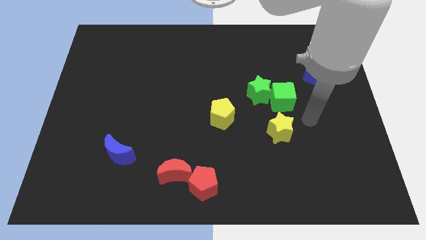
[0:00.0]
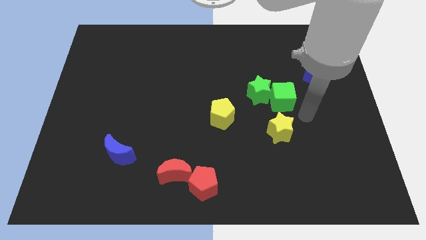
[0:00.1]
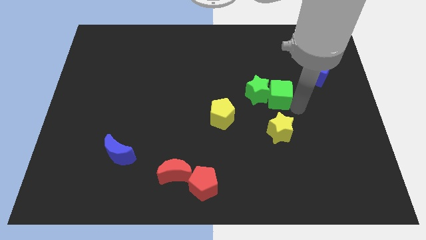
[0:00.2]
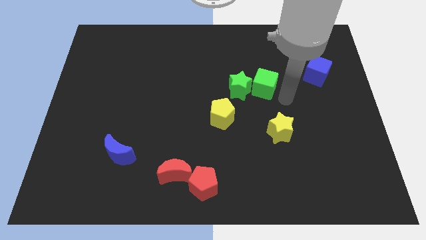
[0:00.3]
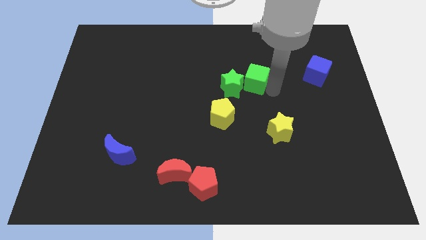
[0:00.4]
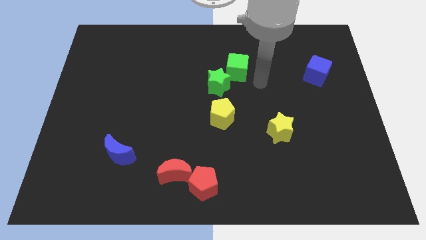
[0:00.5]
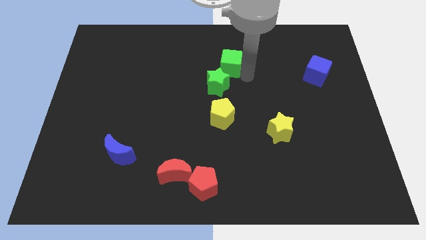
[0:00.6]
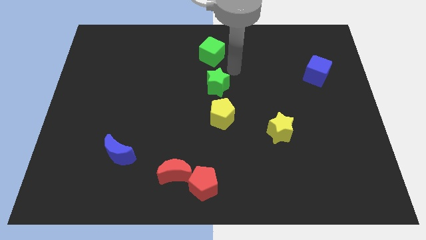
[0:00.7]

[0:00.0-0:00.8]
separate the green star from the green cube

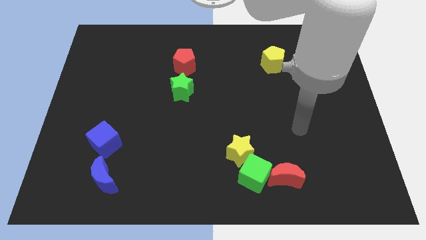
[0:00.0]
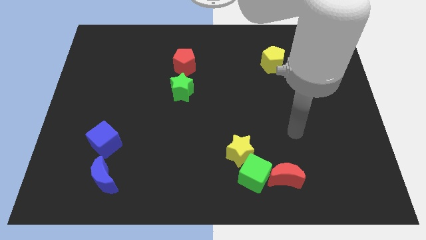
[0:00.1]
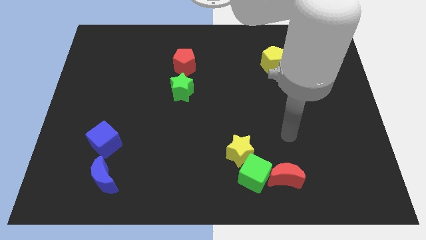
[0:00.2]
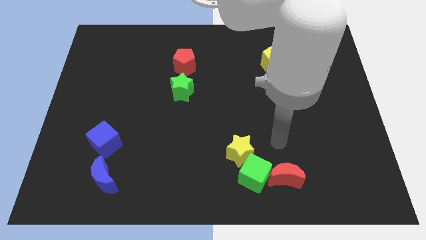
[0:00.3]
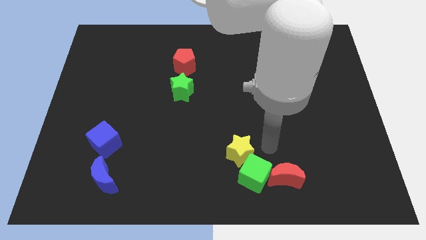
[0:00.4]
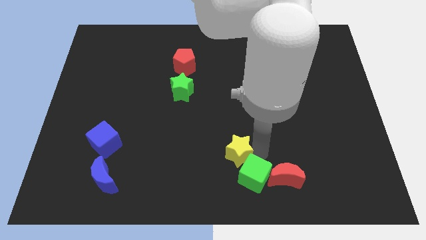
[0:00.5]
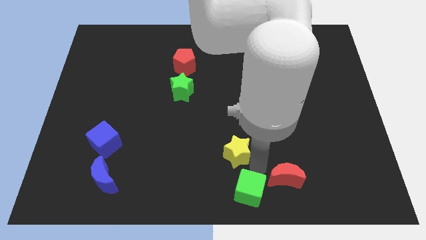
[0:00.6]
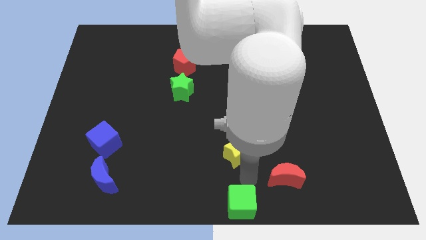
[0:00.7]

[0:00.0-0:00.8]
move the yellow star away from the green cube

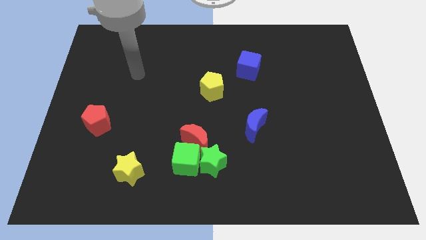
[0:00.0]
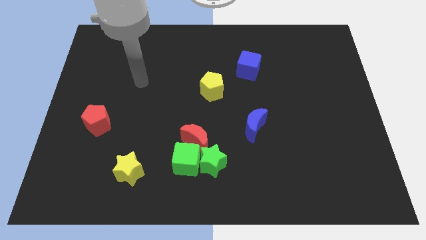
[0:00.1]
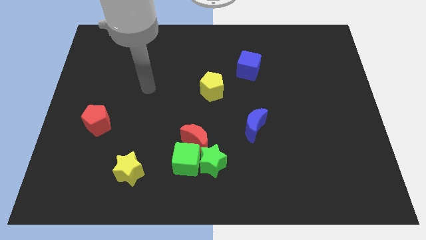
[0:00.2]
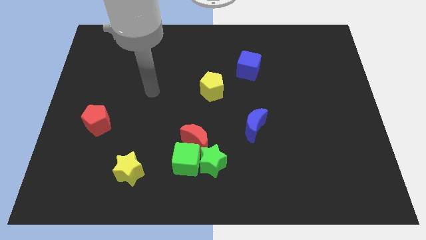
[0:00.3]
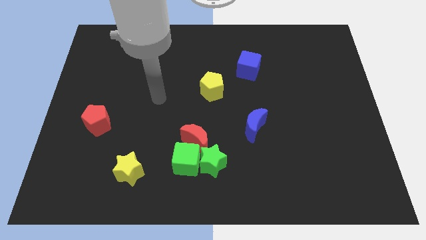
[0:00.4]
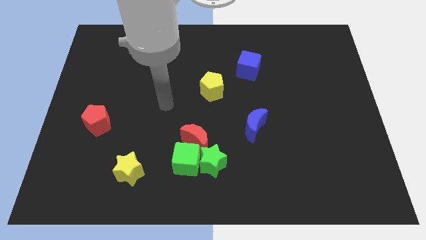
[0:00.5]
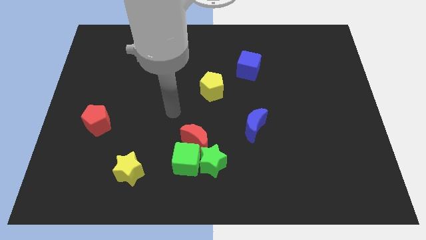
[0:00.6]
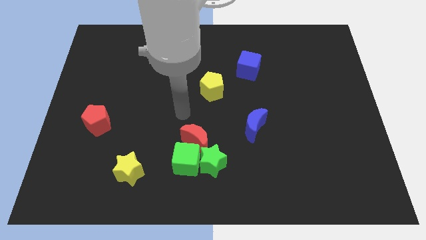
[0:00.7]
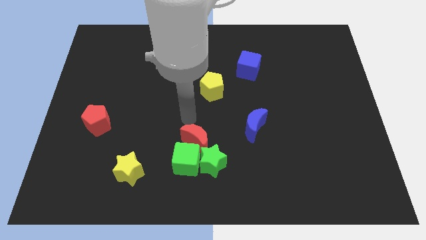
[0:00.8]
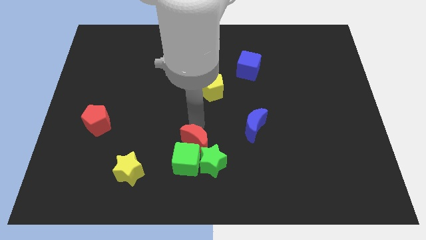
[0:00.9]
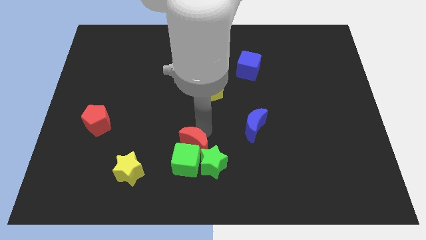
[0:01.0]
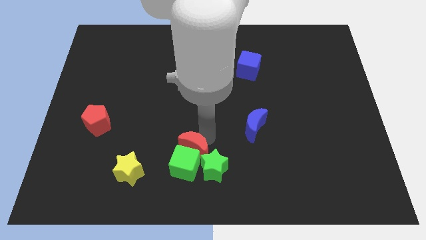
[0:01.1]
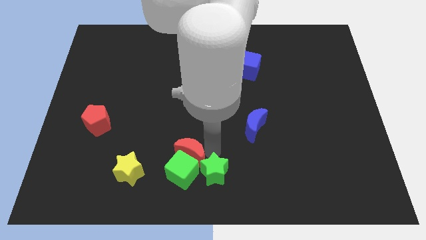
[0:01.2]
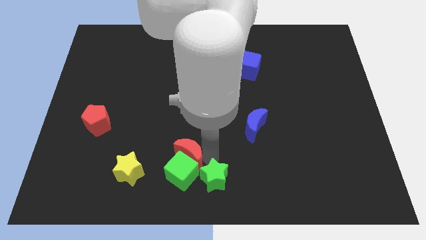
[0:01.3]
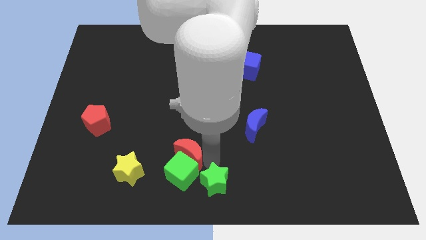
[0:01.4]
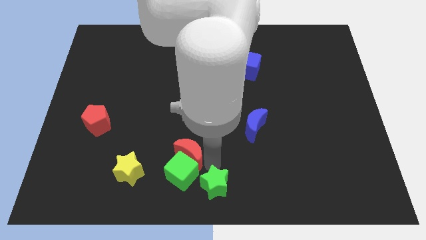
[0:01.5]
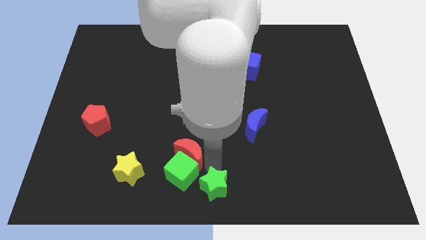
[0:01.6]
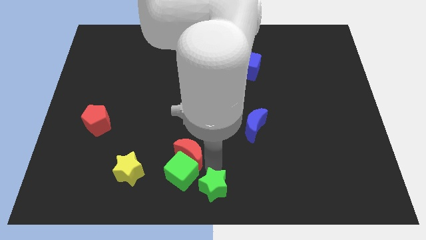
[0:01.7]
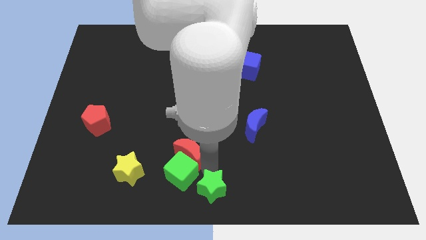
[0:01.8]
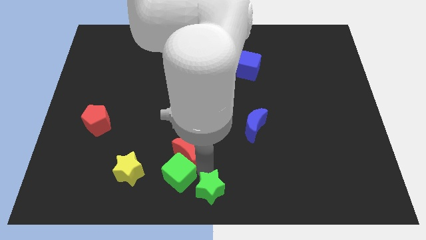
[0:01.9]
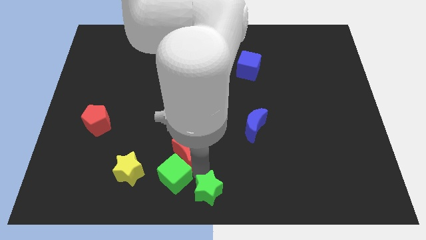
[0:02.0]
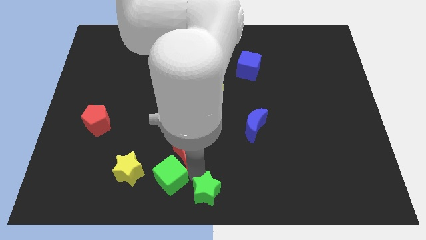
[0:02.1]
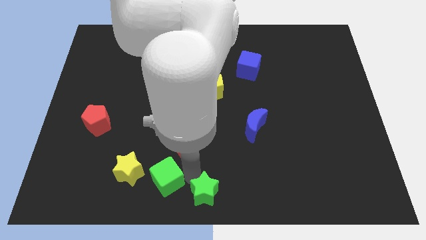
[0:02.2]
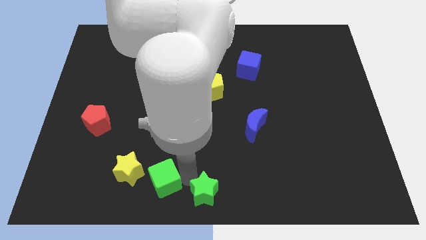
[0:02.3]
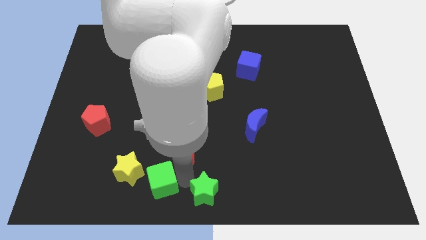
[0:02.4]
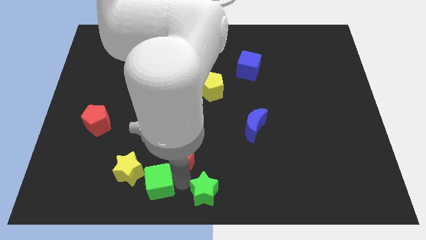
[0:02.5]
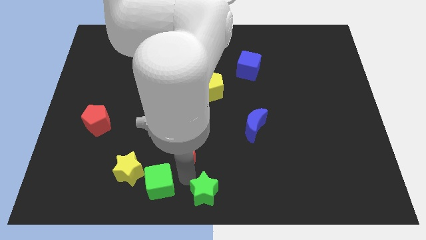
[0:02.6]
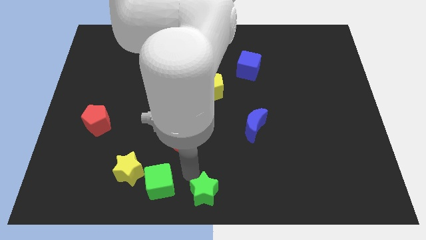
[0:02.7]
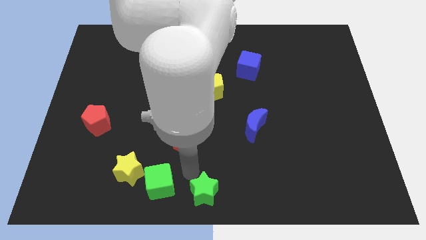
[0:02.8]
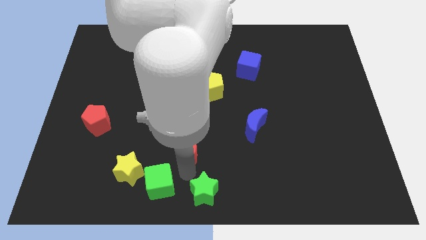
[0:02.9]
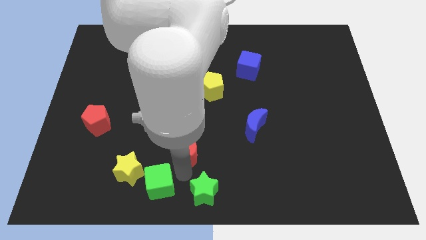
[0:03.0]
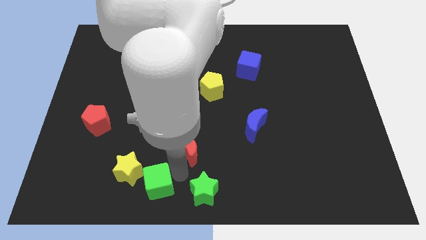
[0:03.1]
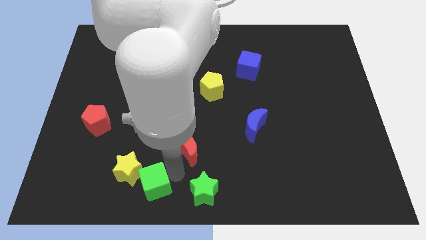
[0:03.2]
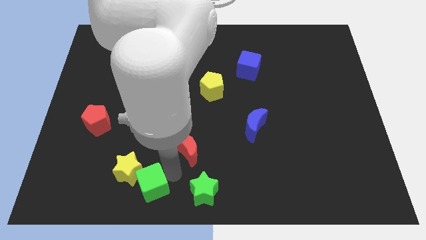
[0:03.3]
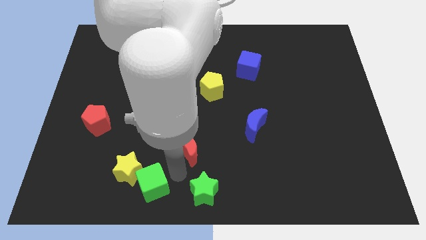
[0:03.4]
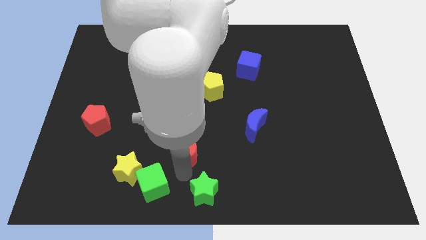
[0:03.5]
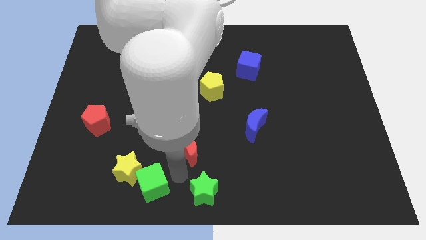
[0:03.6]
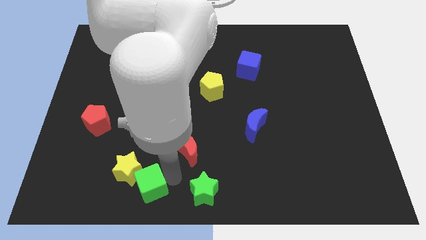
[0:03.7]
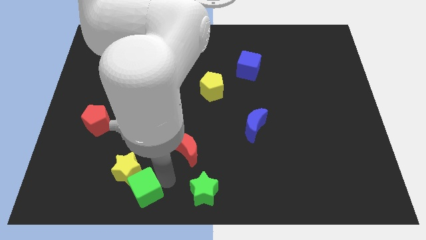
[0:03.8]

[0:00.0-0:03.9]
move the green cube away from the green star and red moon

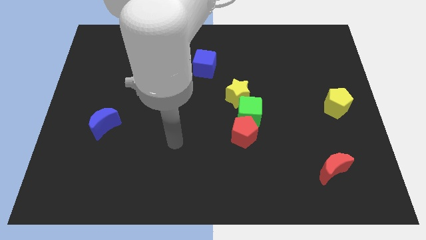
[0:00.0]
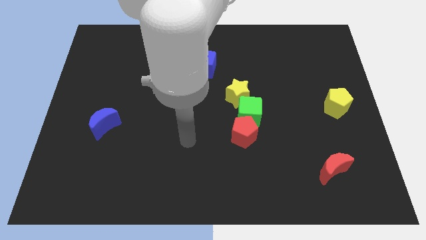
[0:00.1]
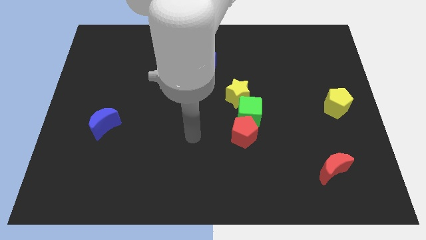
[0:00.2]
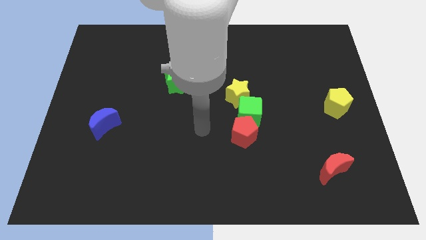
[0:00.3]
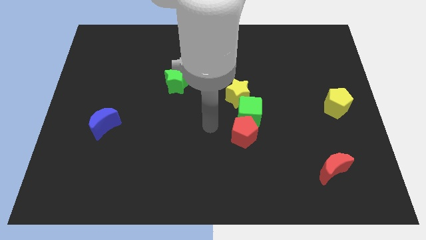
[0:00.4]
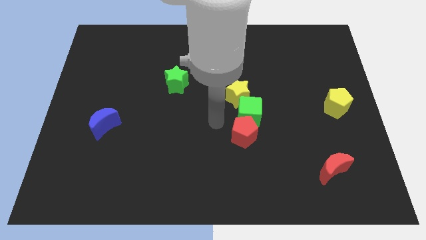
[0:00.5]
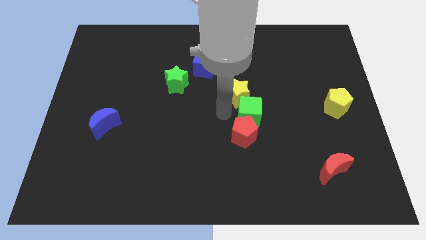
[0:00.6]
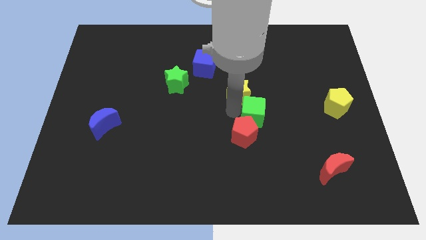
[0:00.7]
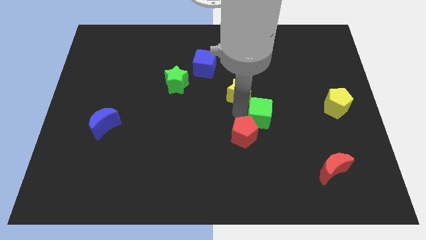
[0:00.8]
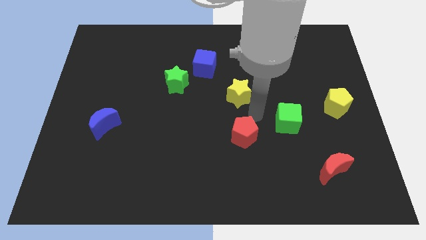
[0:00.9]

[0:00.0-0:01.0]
separate the red pentagon from the green cube

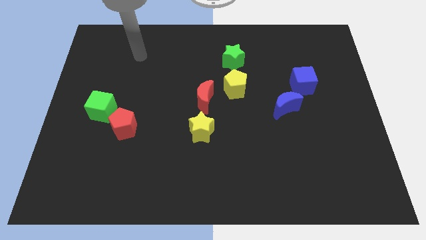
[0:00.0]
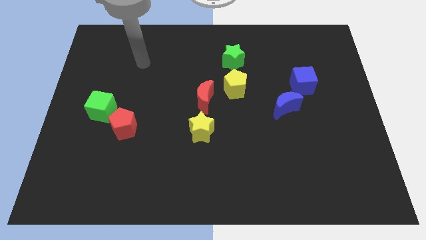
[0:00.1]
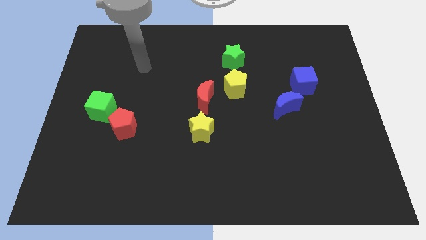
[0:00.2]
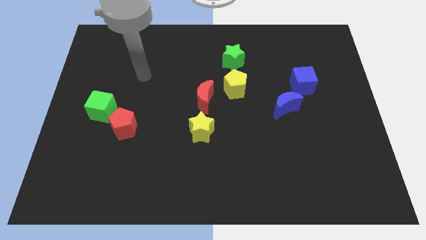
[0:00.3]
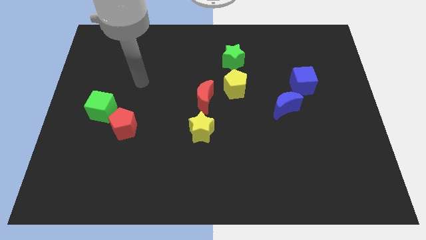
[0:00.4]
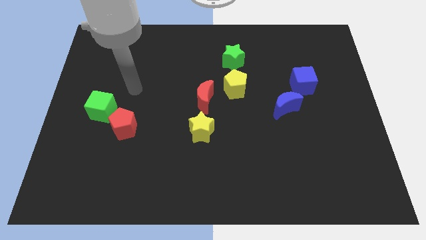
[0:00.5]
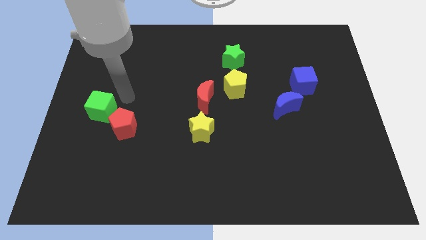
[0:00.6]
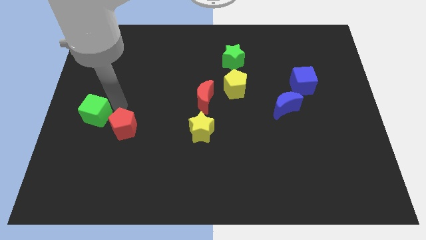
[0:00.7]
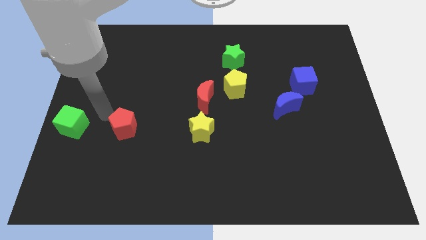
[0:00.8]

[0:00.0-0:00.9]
move the red pentagon away from the green cube

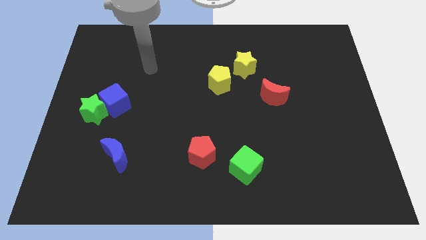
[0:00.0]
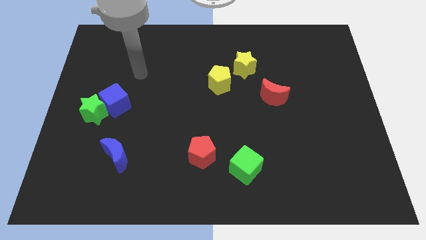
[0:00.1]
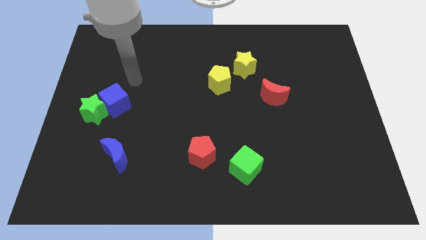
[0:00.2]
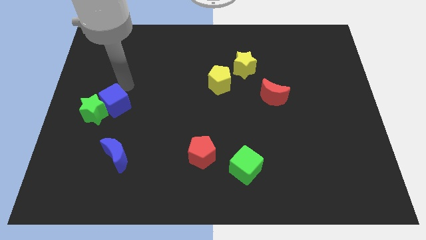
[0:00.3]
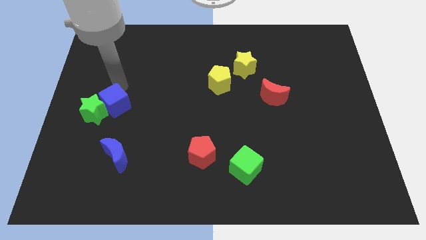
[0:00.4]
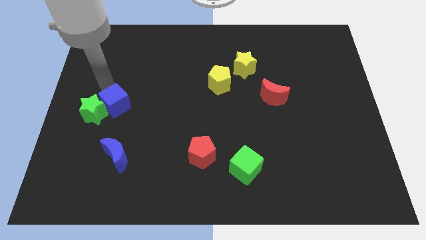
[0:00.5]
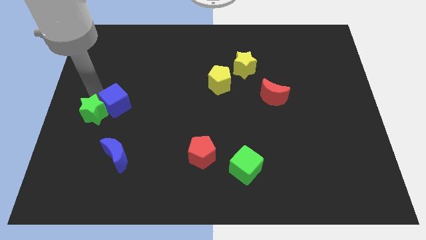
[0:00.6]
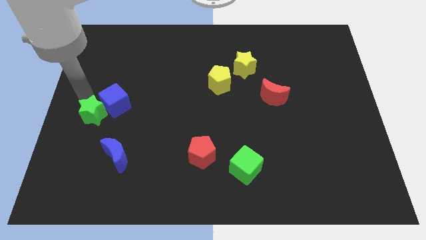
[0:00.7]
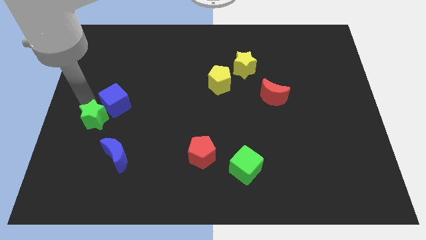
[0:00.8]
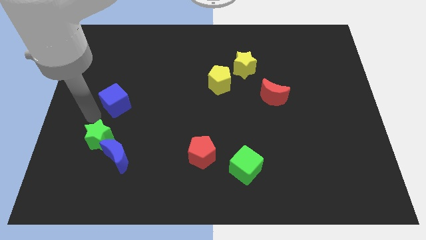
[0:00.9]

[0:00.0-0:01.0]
move the blue cube away from the green star

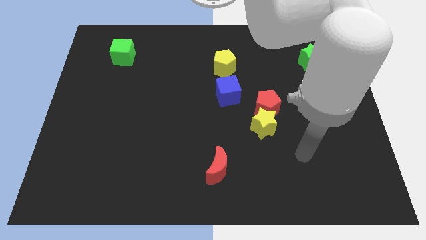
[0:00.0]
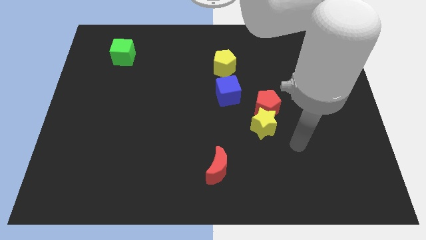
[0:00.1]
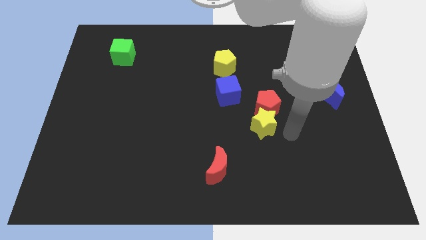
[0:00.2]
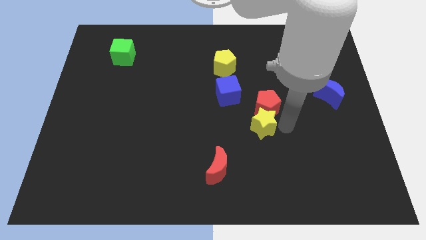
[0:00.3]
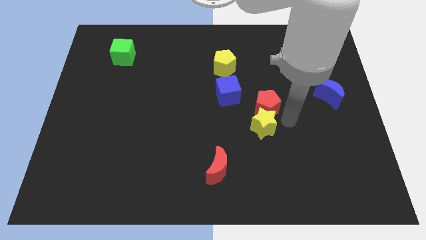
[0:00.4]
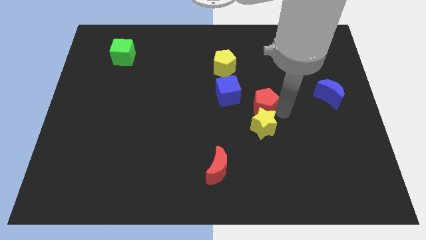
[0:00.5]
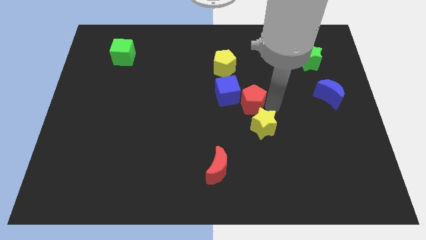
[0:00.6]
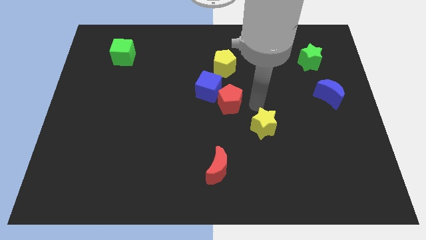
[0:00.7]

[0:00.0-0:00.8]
pull the yellow star apart from the red pentagon

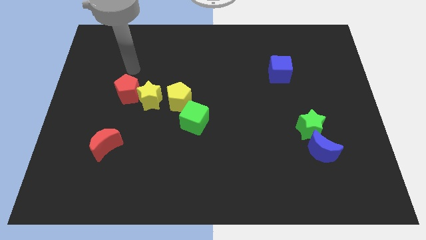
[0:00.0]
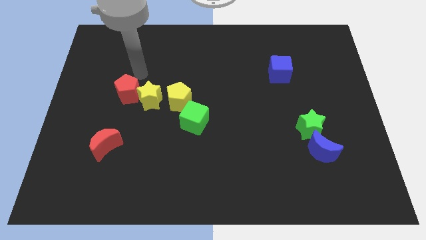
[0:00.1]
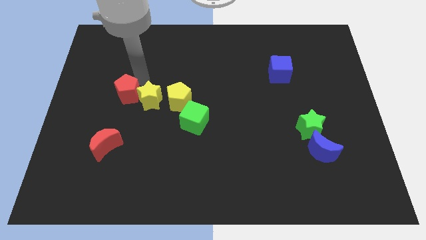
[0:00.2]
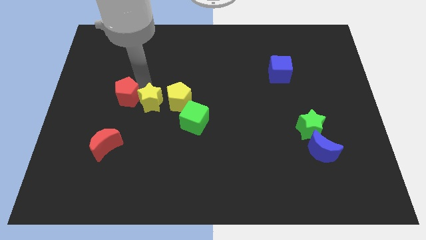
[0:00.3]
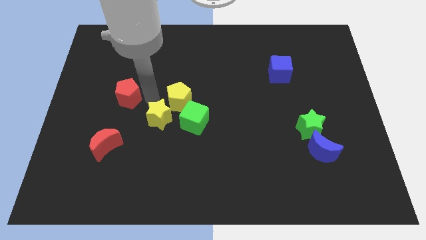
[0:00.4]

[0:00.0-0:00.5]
move the red pentagon away from the yellow star
